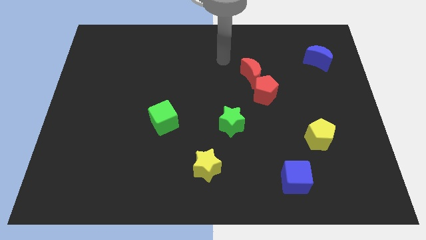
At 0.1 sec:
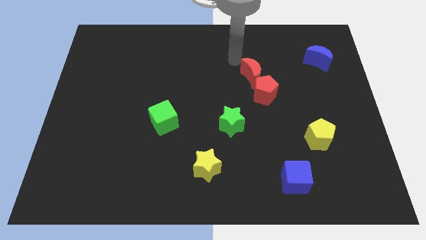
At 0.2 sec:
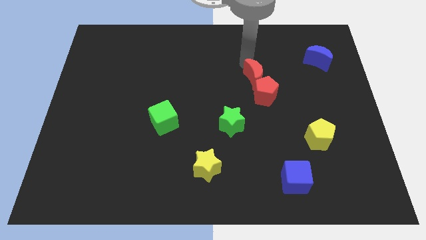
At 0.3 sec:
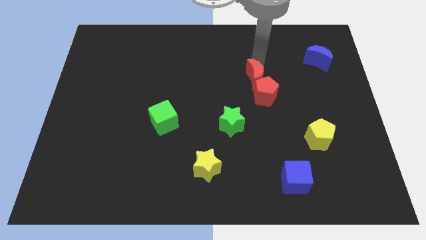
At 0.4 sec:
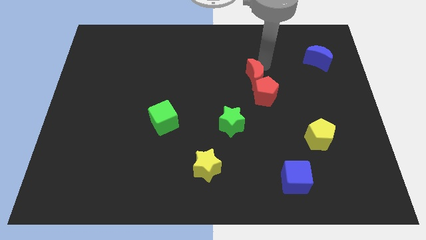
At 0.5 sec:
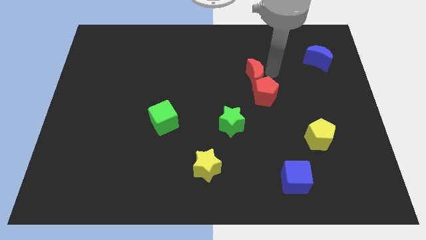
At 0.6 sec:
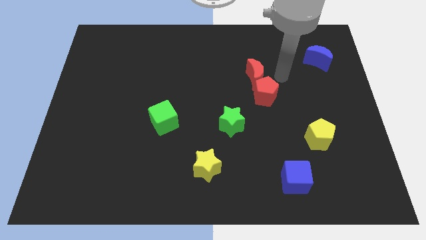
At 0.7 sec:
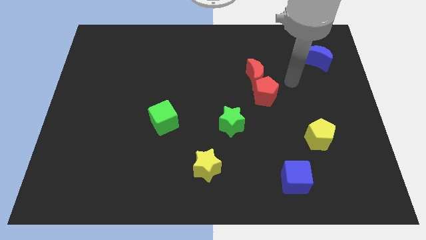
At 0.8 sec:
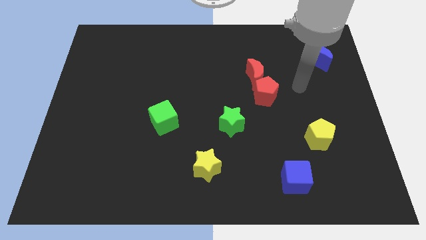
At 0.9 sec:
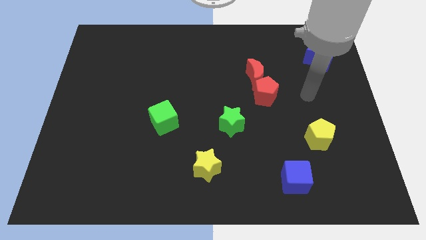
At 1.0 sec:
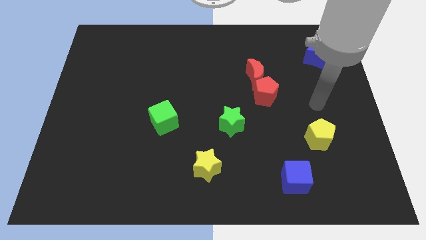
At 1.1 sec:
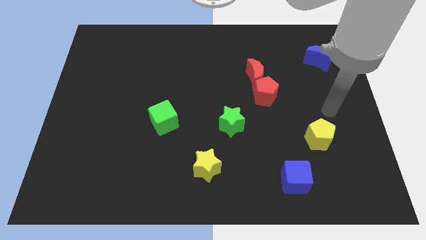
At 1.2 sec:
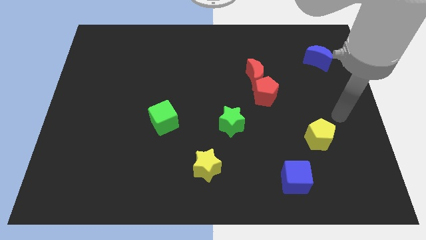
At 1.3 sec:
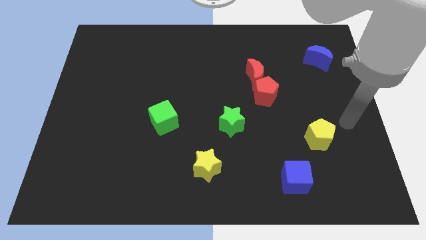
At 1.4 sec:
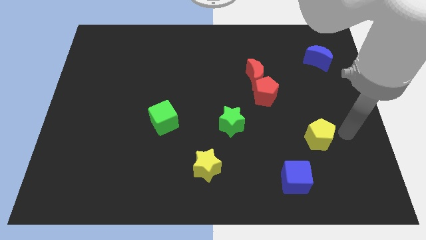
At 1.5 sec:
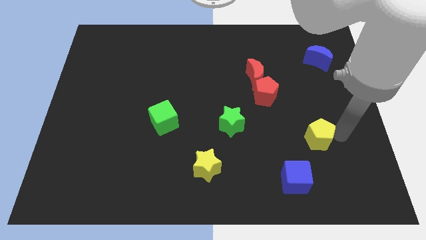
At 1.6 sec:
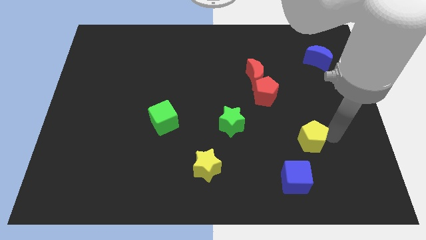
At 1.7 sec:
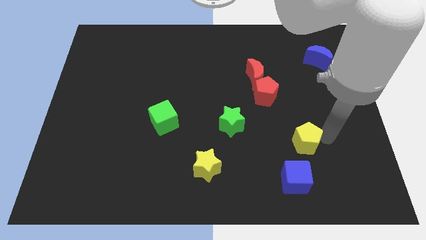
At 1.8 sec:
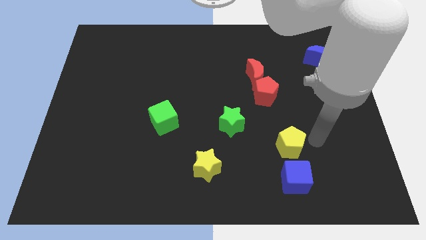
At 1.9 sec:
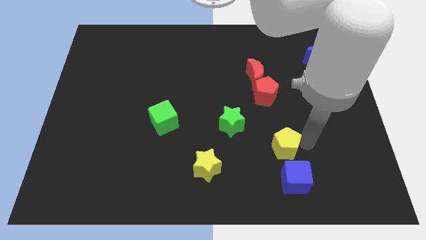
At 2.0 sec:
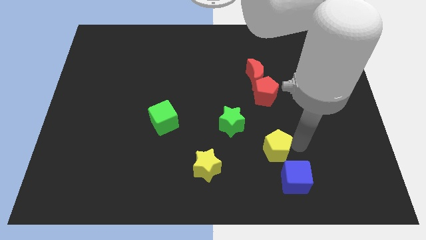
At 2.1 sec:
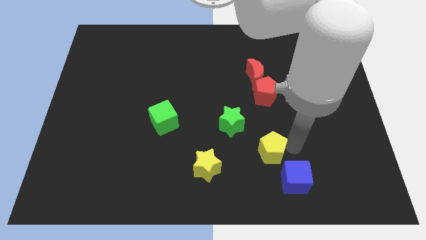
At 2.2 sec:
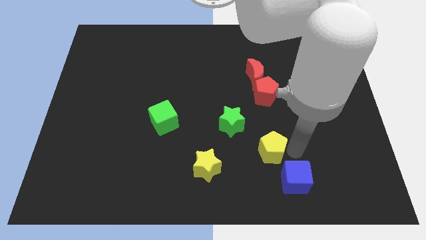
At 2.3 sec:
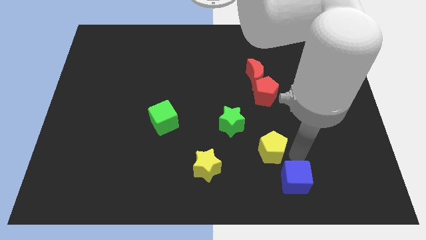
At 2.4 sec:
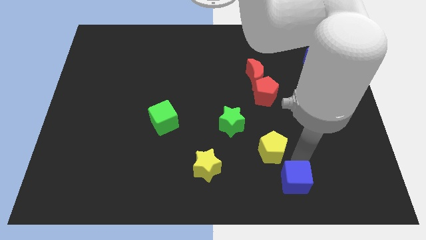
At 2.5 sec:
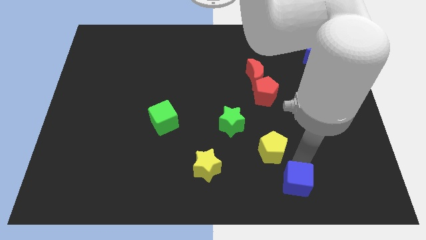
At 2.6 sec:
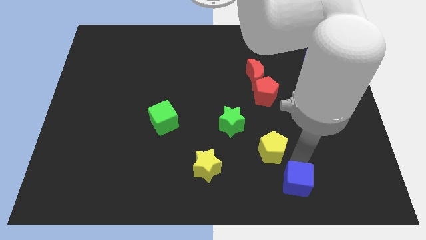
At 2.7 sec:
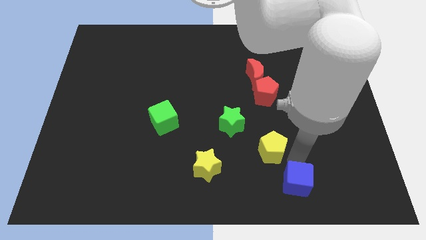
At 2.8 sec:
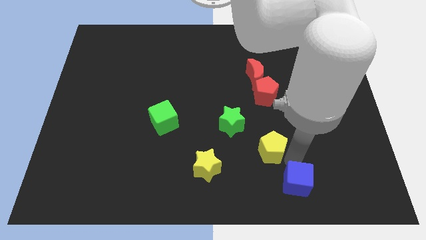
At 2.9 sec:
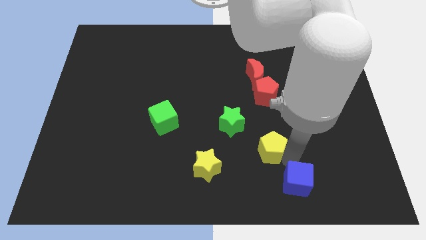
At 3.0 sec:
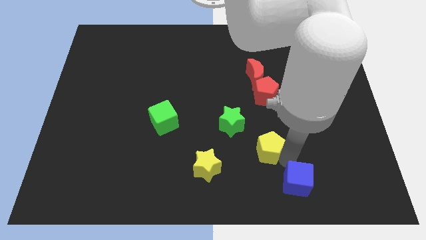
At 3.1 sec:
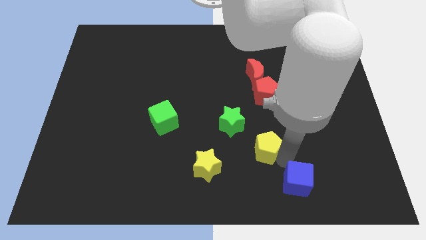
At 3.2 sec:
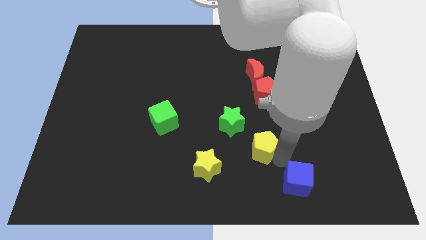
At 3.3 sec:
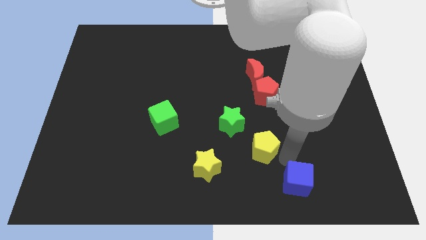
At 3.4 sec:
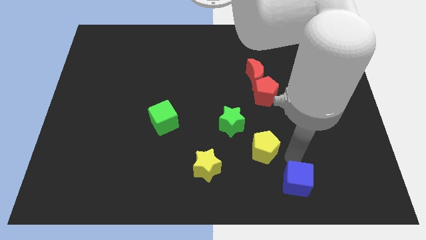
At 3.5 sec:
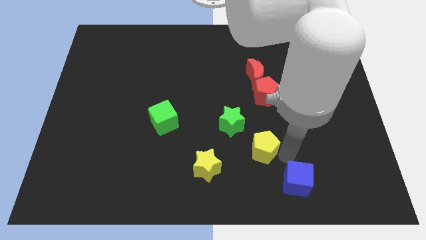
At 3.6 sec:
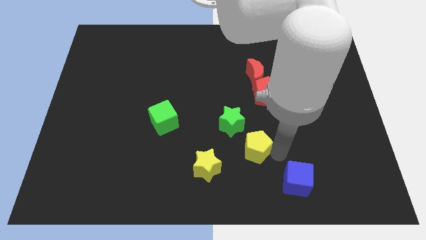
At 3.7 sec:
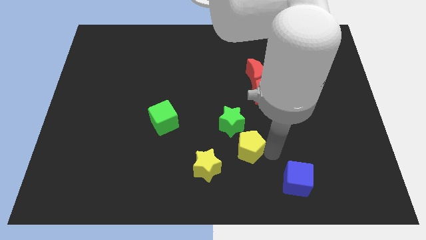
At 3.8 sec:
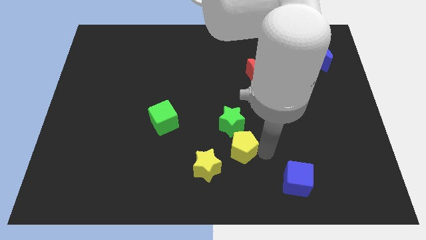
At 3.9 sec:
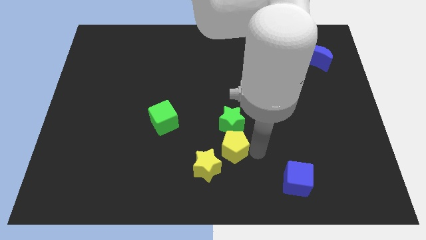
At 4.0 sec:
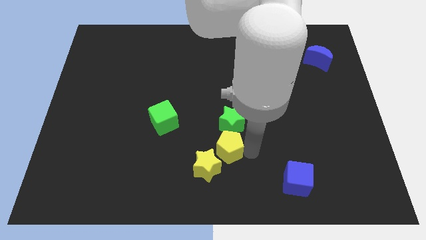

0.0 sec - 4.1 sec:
move the yellow pentagon to the left

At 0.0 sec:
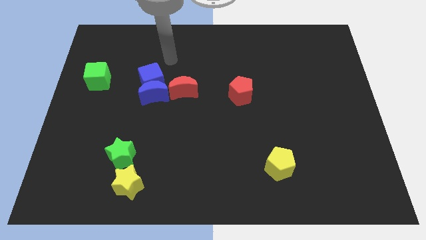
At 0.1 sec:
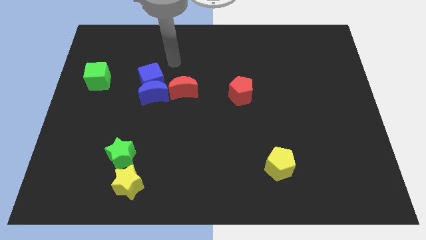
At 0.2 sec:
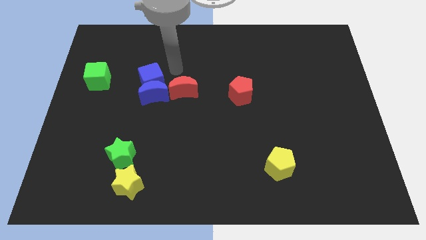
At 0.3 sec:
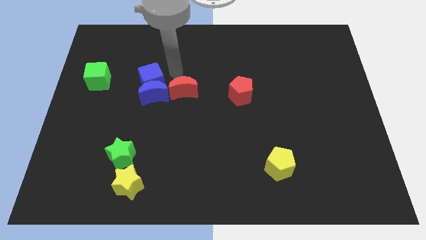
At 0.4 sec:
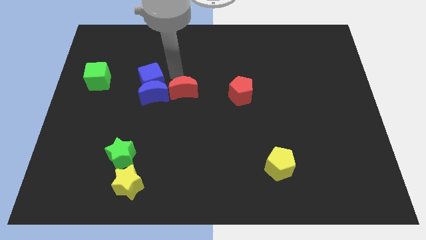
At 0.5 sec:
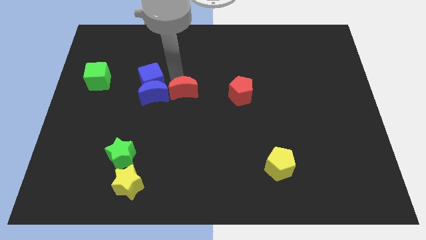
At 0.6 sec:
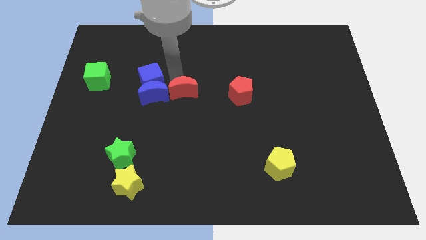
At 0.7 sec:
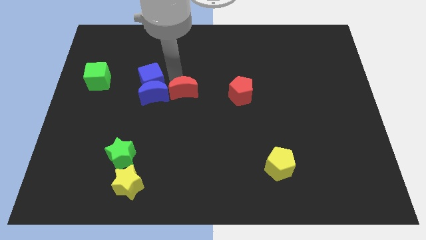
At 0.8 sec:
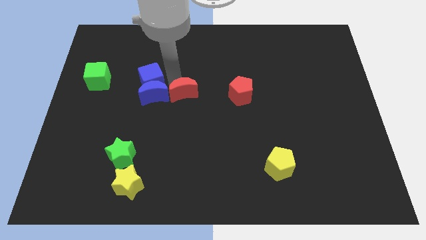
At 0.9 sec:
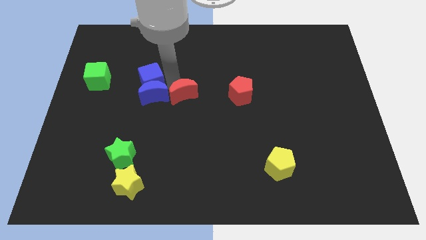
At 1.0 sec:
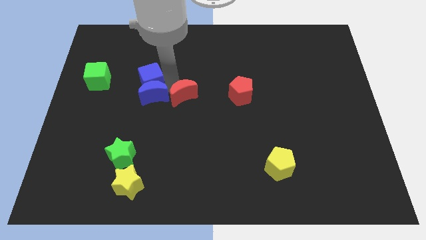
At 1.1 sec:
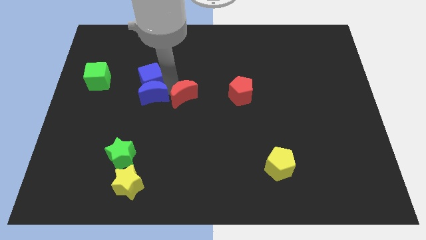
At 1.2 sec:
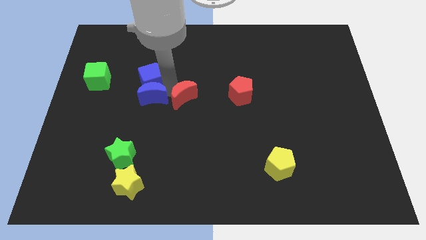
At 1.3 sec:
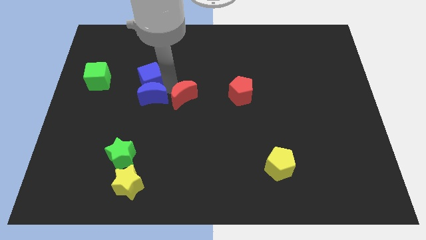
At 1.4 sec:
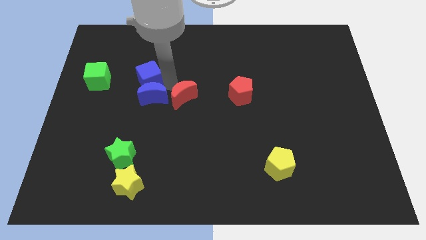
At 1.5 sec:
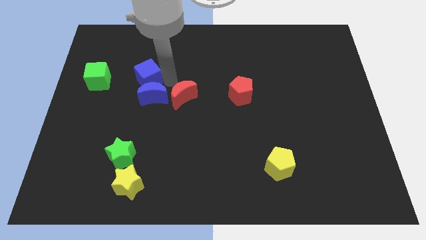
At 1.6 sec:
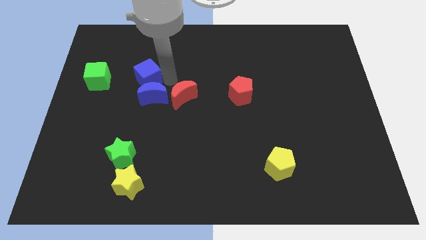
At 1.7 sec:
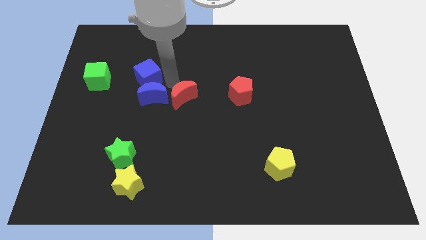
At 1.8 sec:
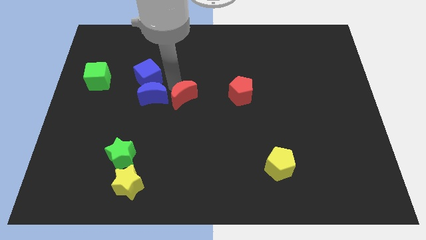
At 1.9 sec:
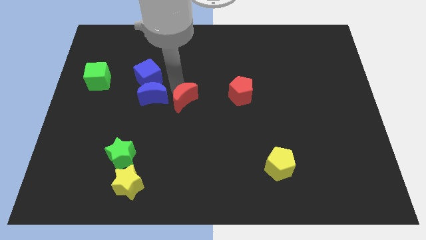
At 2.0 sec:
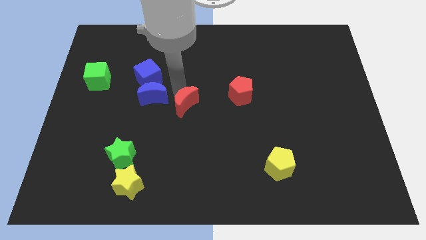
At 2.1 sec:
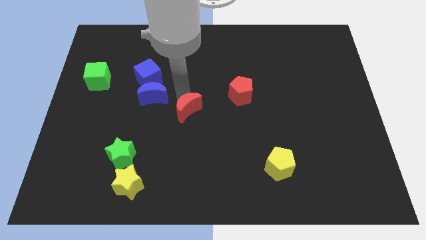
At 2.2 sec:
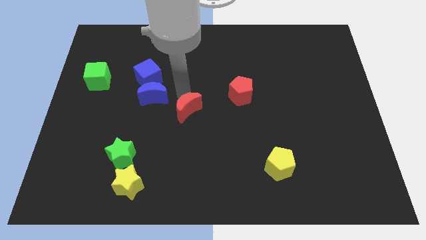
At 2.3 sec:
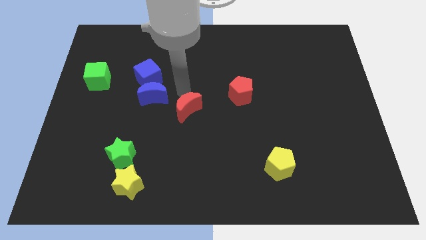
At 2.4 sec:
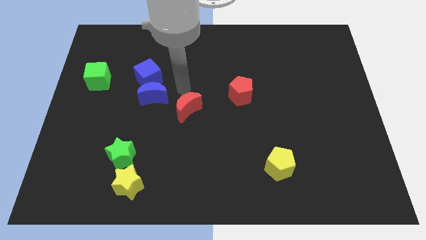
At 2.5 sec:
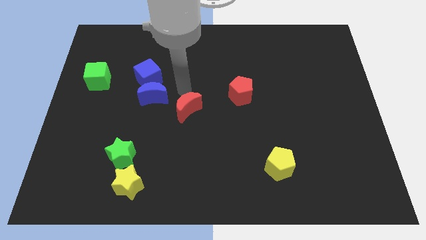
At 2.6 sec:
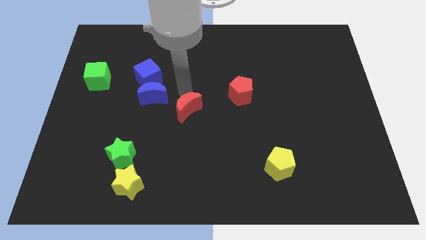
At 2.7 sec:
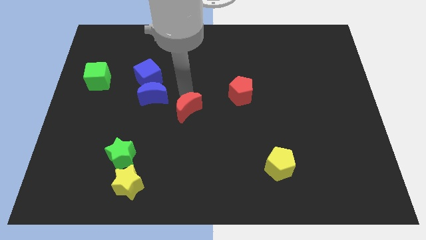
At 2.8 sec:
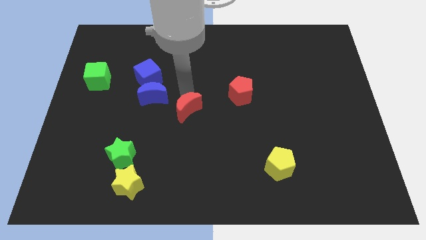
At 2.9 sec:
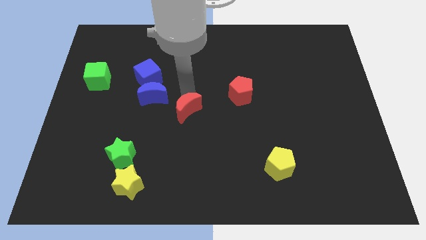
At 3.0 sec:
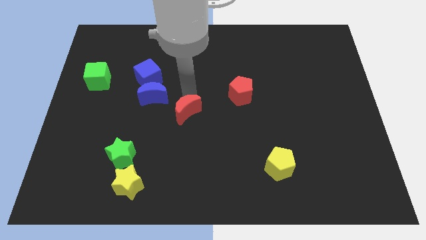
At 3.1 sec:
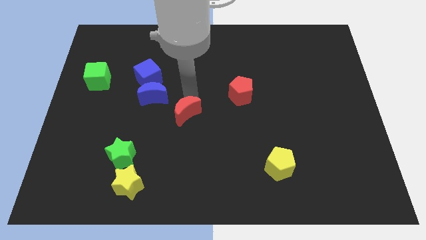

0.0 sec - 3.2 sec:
slightly move the red moon down

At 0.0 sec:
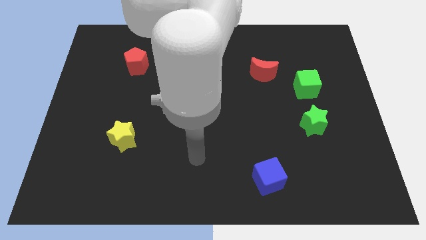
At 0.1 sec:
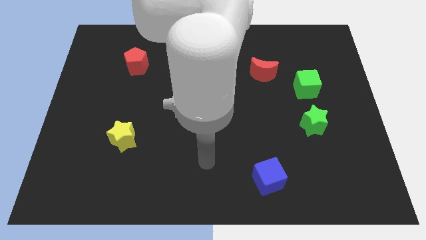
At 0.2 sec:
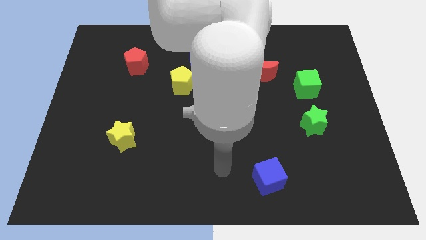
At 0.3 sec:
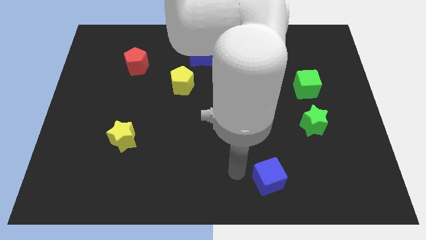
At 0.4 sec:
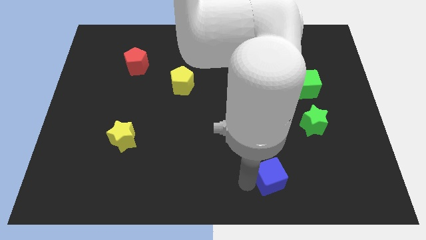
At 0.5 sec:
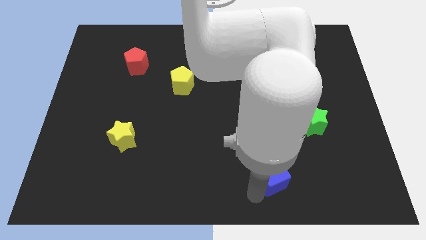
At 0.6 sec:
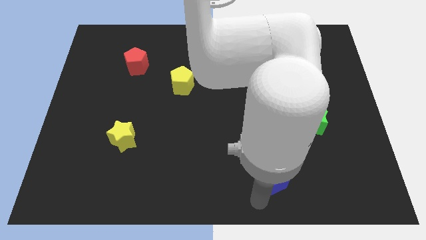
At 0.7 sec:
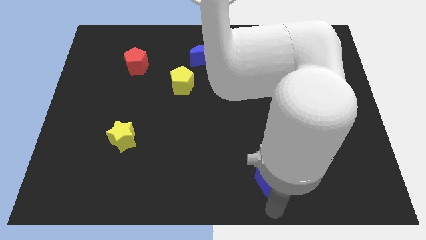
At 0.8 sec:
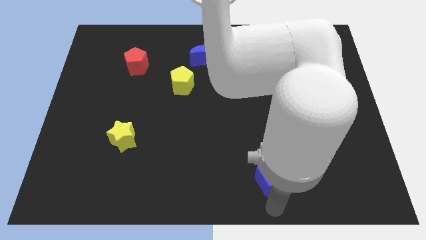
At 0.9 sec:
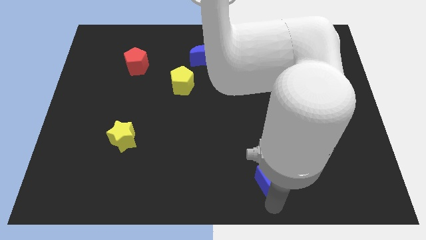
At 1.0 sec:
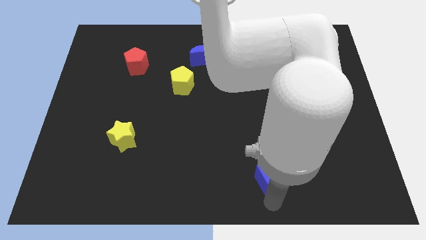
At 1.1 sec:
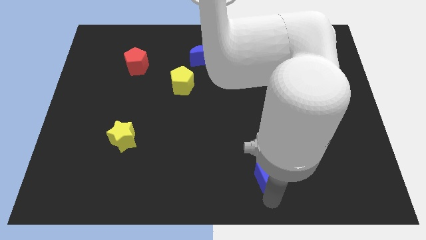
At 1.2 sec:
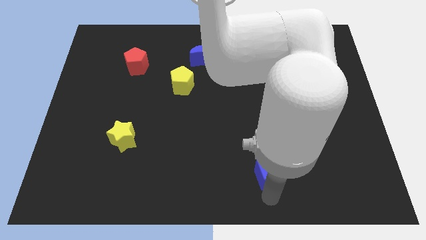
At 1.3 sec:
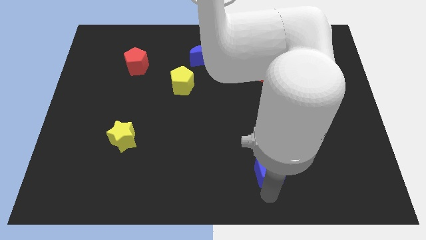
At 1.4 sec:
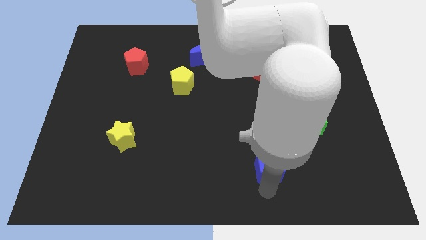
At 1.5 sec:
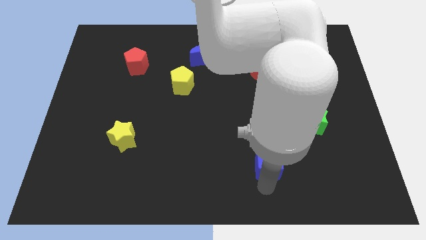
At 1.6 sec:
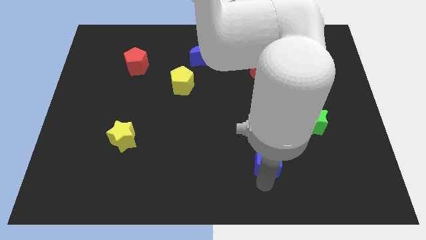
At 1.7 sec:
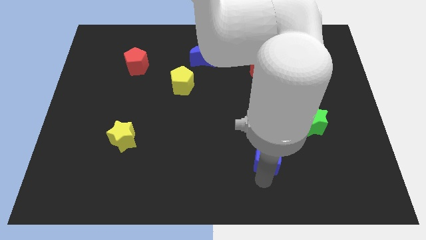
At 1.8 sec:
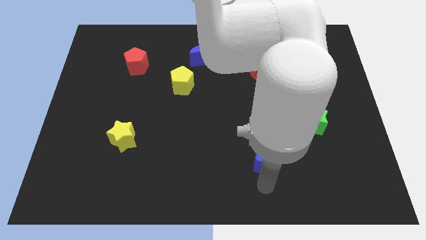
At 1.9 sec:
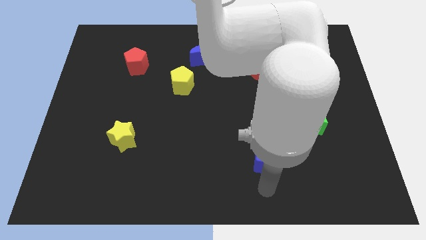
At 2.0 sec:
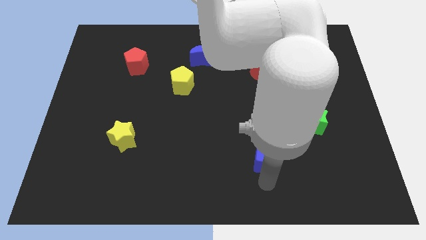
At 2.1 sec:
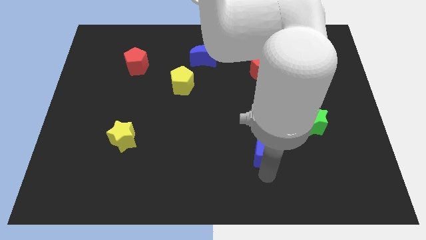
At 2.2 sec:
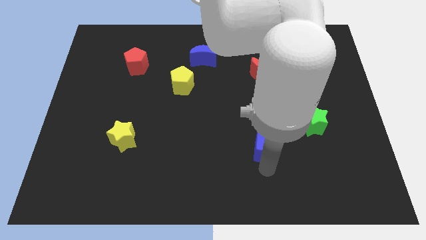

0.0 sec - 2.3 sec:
slightly push the blue cube up
